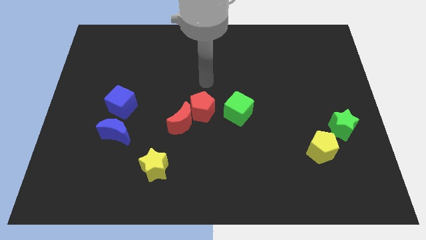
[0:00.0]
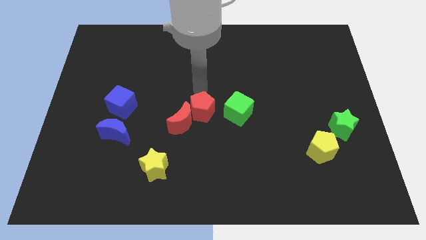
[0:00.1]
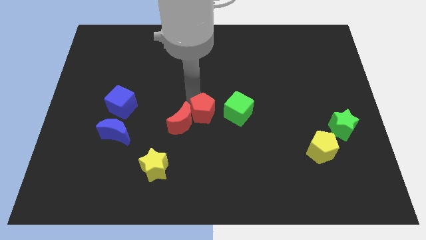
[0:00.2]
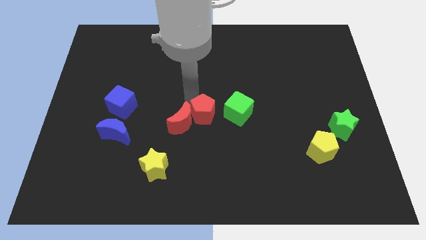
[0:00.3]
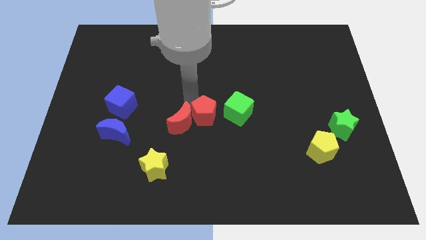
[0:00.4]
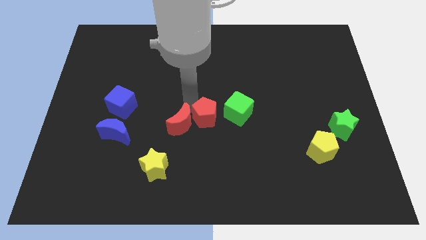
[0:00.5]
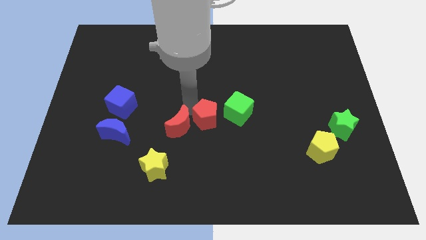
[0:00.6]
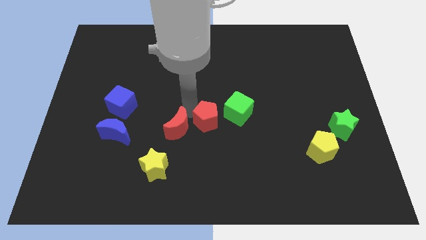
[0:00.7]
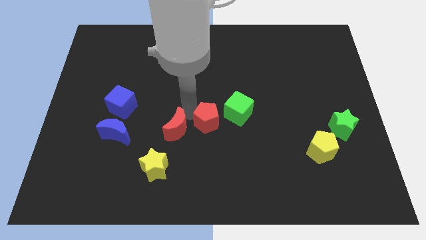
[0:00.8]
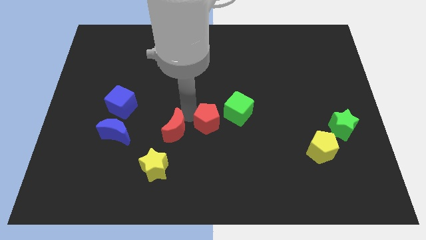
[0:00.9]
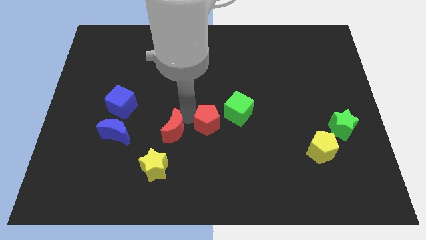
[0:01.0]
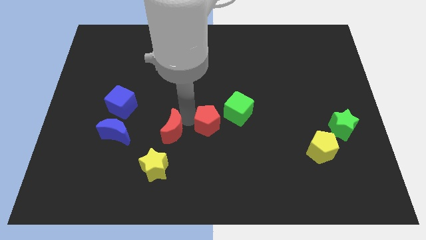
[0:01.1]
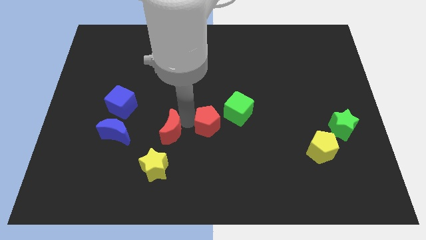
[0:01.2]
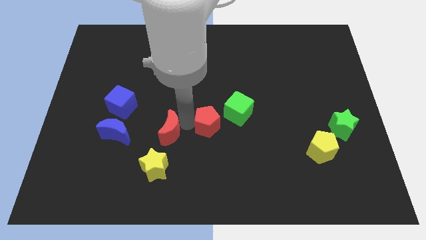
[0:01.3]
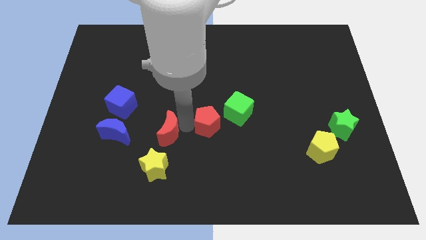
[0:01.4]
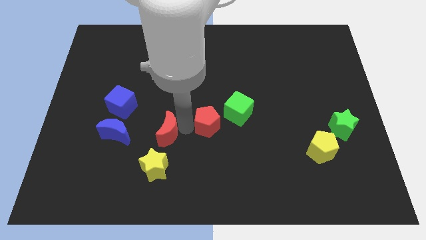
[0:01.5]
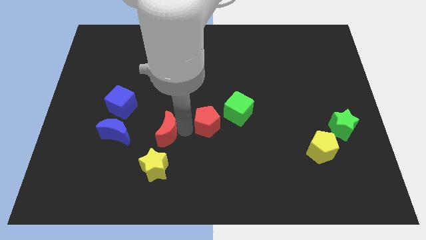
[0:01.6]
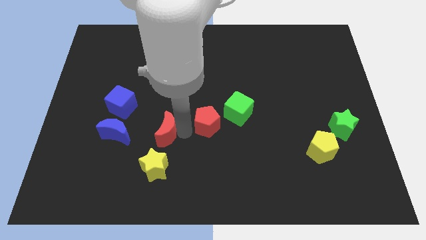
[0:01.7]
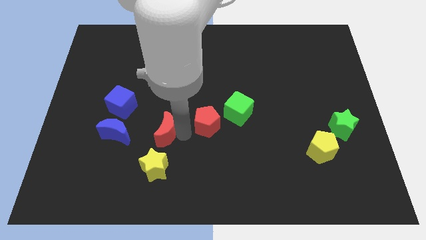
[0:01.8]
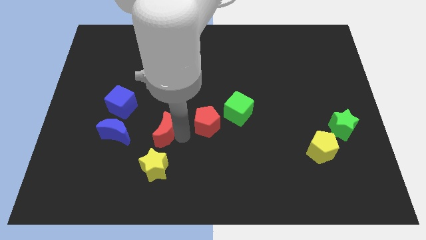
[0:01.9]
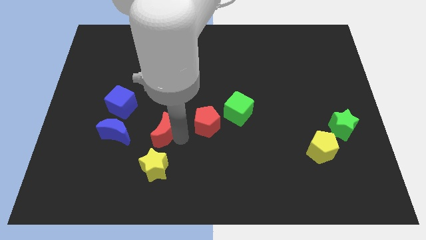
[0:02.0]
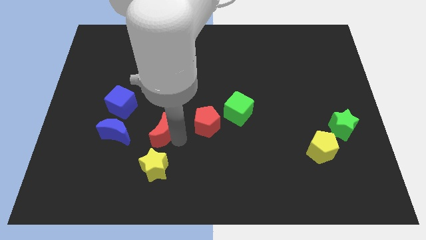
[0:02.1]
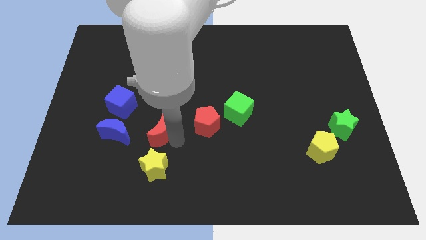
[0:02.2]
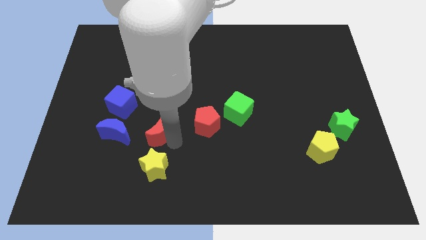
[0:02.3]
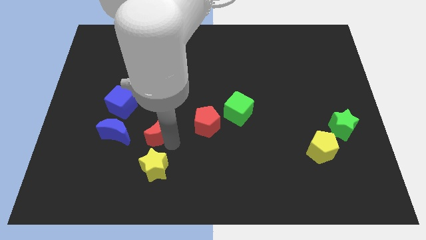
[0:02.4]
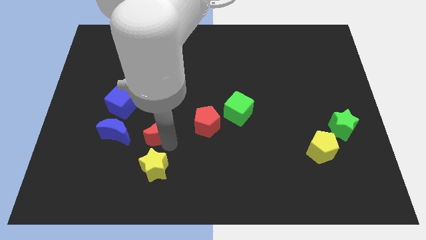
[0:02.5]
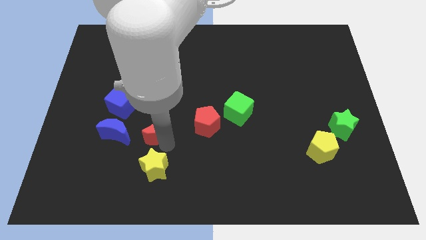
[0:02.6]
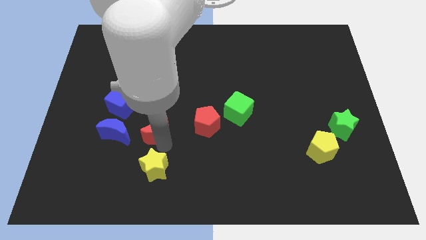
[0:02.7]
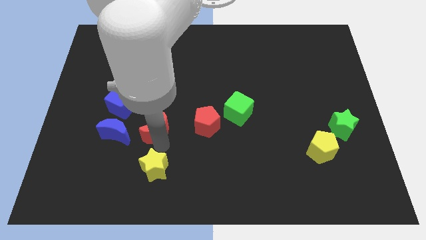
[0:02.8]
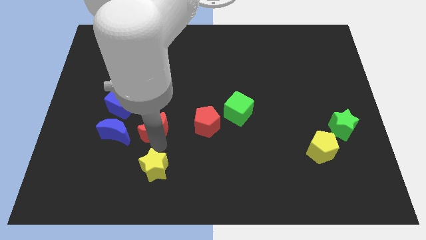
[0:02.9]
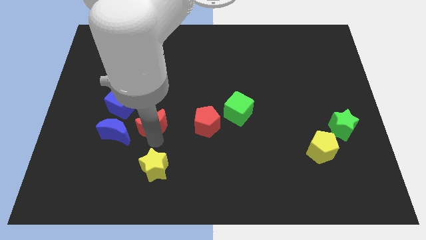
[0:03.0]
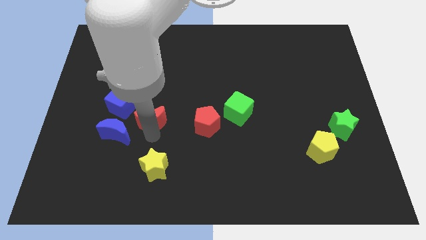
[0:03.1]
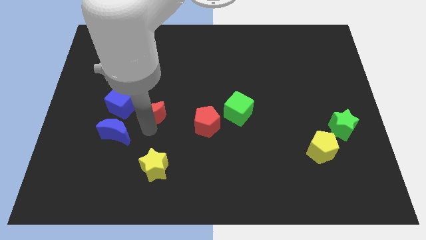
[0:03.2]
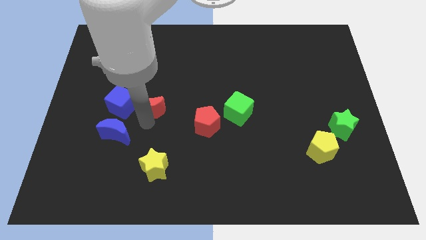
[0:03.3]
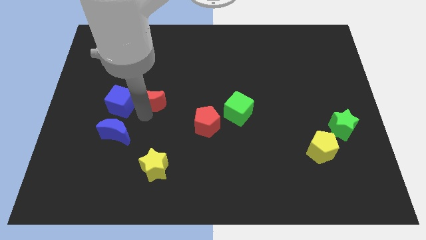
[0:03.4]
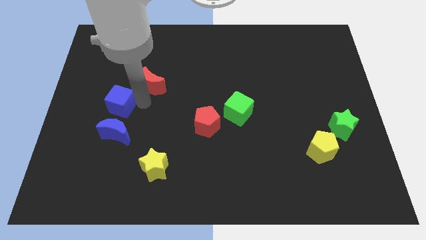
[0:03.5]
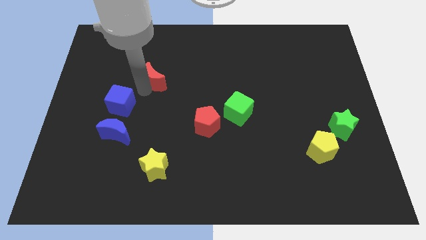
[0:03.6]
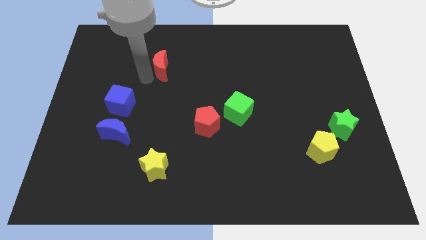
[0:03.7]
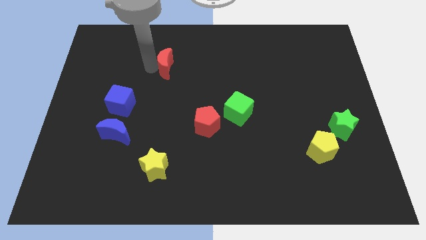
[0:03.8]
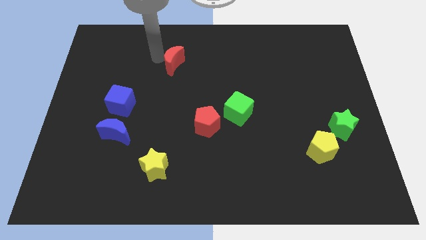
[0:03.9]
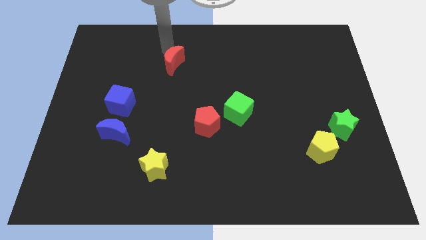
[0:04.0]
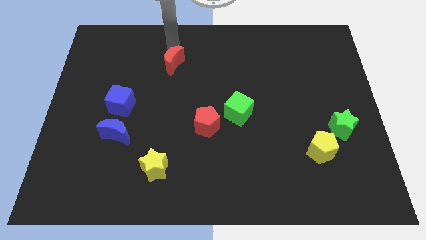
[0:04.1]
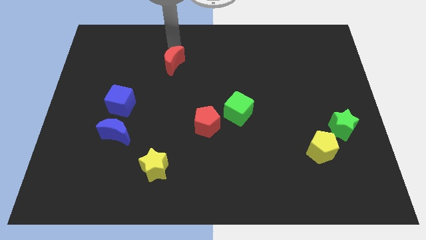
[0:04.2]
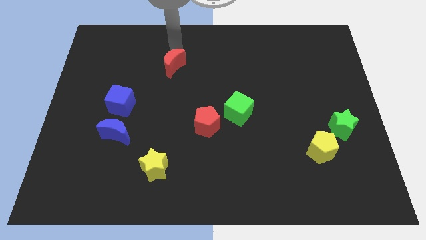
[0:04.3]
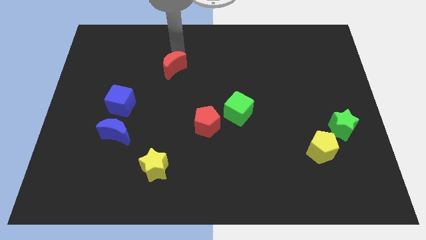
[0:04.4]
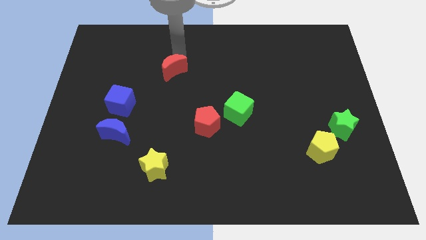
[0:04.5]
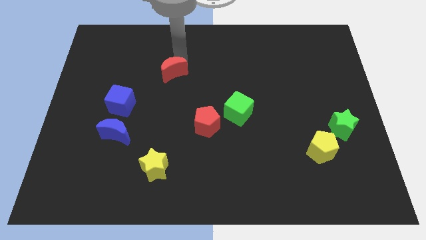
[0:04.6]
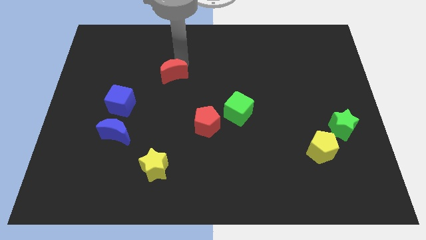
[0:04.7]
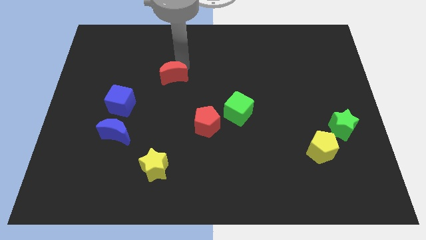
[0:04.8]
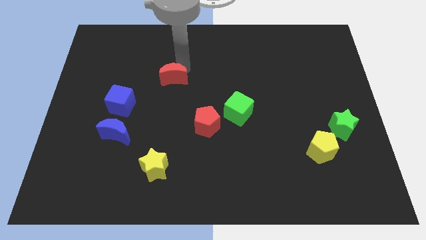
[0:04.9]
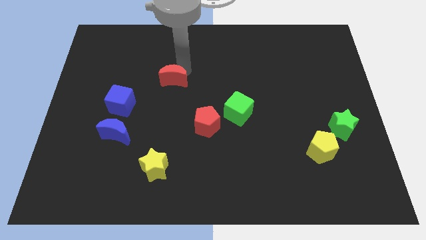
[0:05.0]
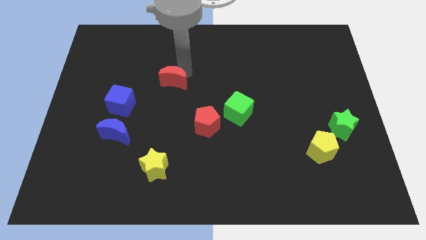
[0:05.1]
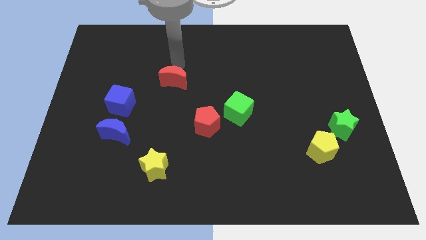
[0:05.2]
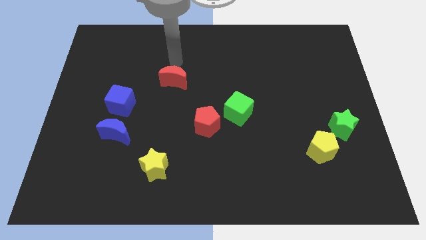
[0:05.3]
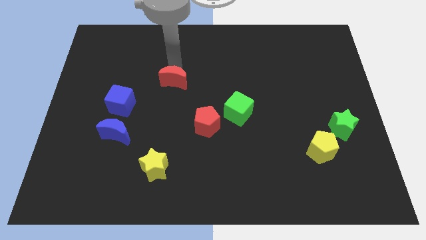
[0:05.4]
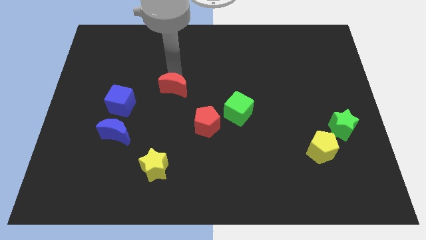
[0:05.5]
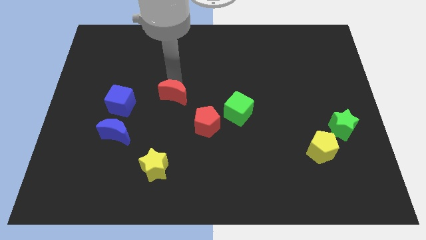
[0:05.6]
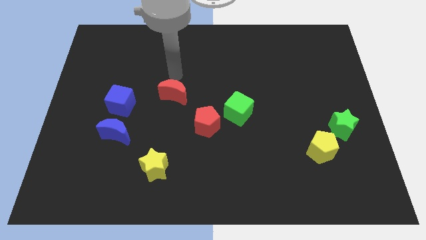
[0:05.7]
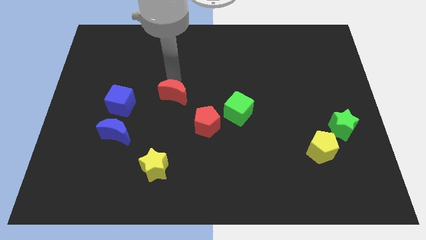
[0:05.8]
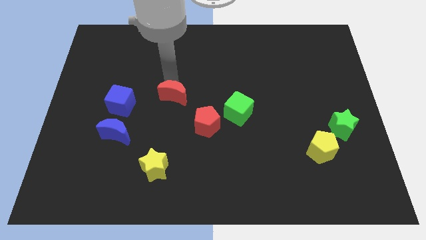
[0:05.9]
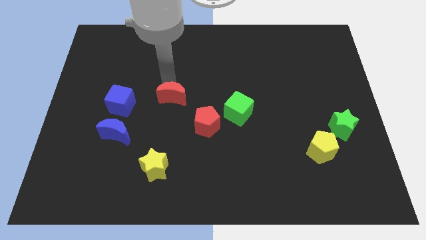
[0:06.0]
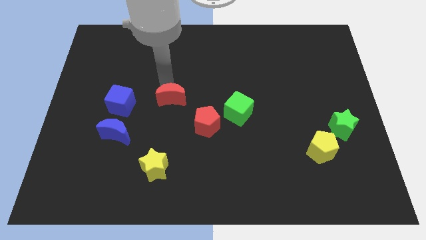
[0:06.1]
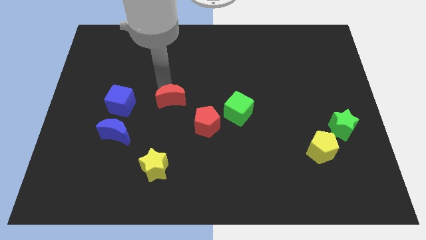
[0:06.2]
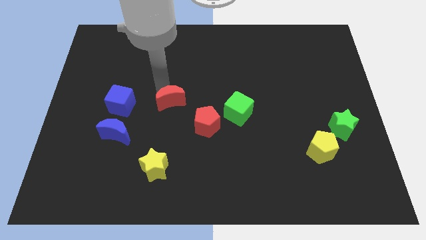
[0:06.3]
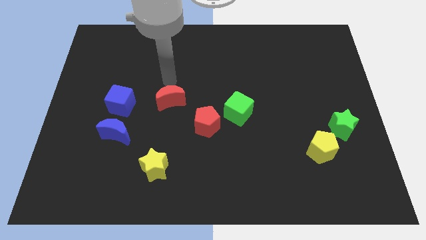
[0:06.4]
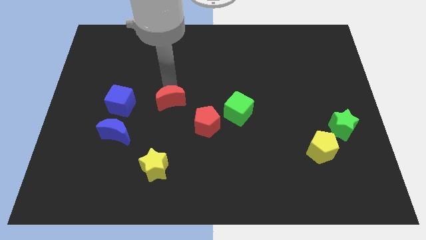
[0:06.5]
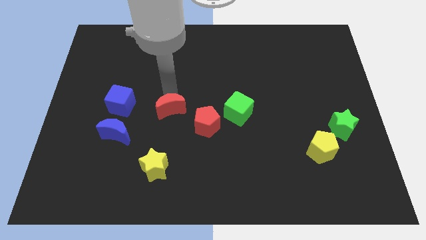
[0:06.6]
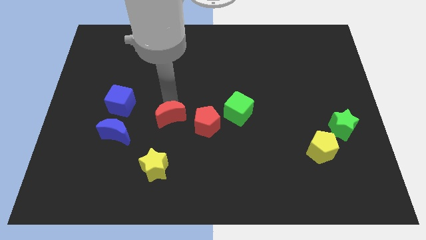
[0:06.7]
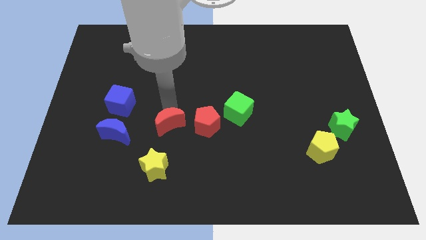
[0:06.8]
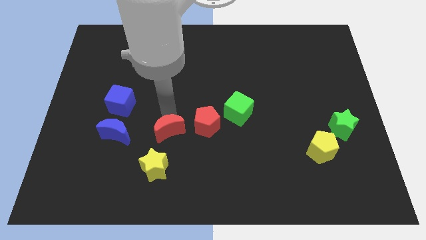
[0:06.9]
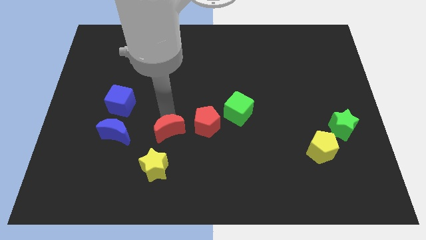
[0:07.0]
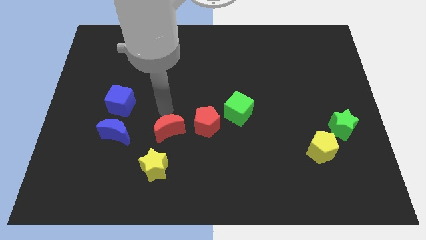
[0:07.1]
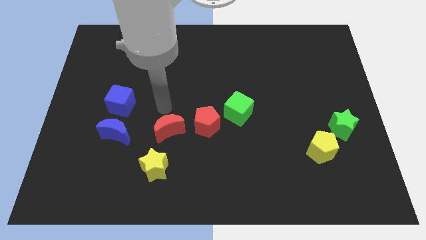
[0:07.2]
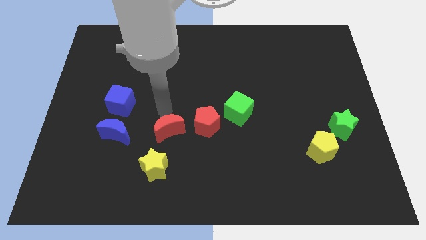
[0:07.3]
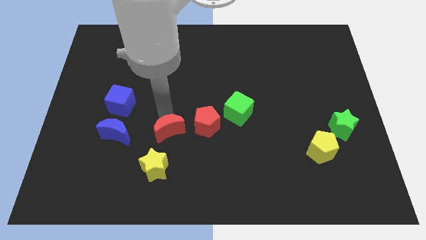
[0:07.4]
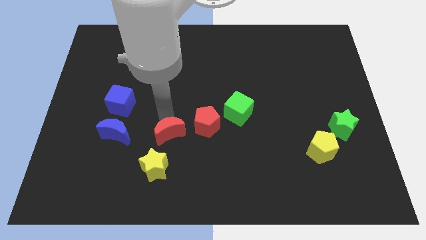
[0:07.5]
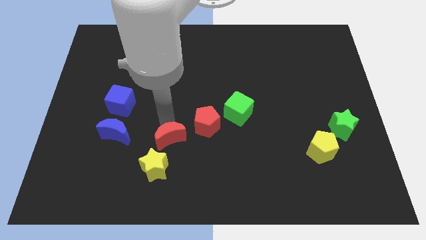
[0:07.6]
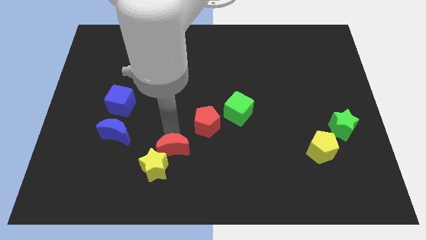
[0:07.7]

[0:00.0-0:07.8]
put the red moon to the yellow star
